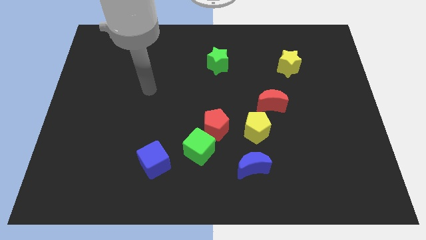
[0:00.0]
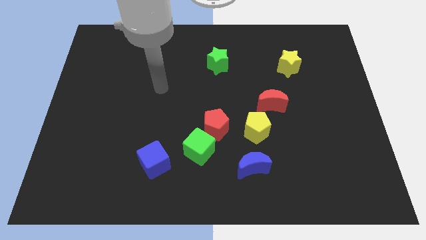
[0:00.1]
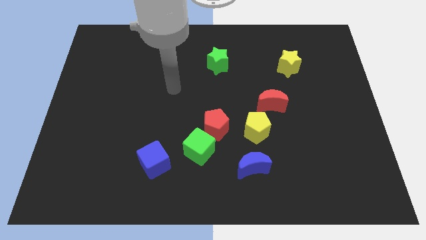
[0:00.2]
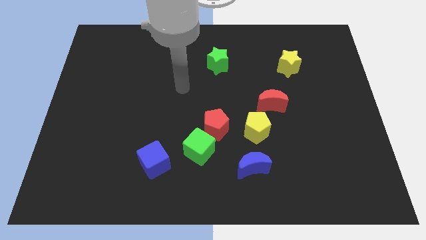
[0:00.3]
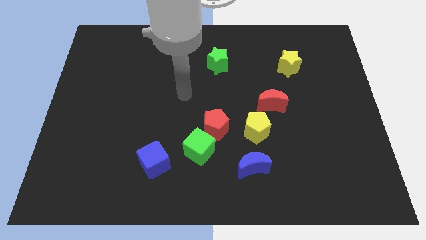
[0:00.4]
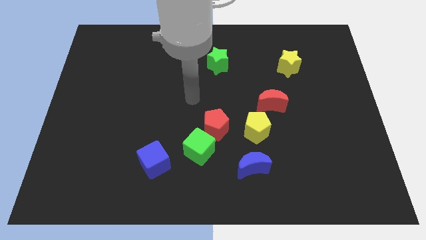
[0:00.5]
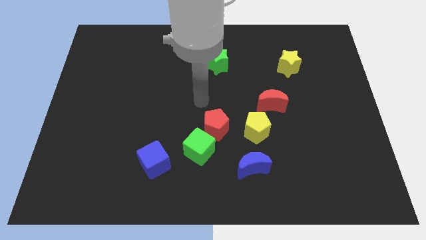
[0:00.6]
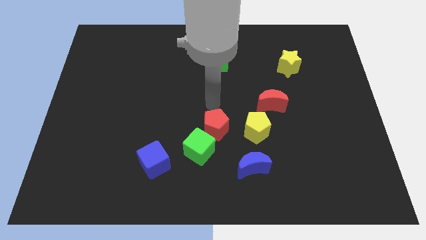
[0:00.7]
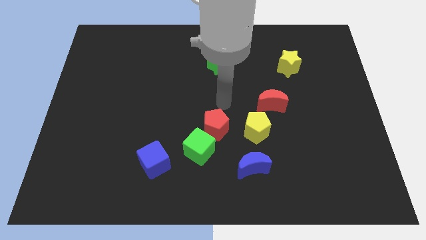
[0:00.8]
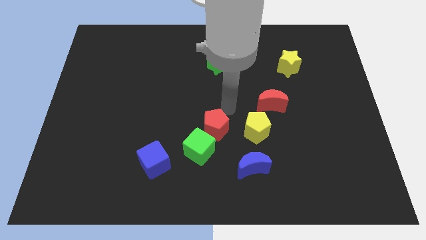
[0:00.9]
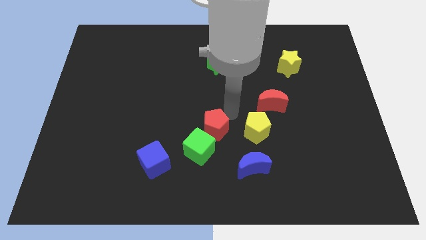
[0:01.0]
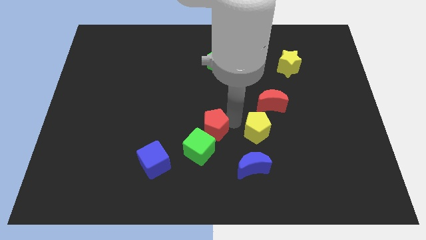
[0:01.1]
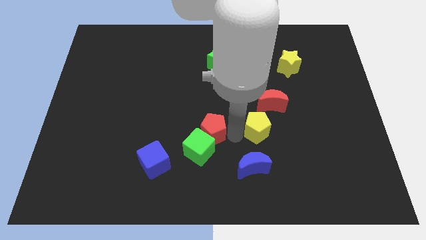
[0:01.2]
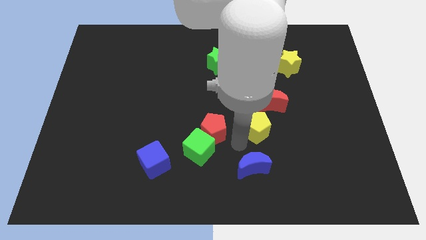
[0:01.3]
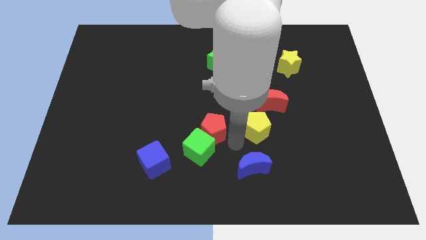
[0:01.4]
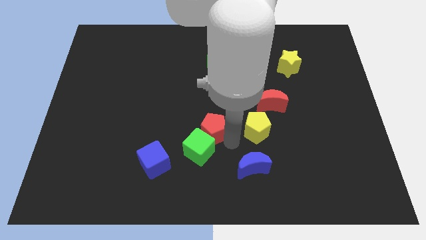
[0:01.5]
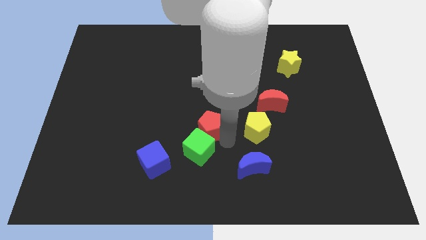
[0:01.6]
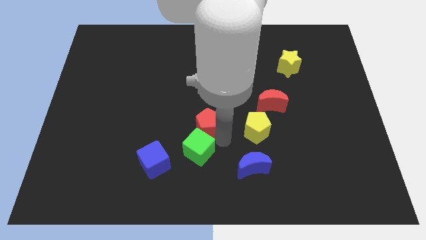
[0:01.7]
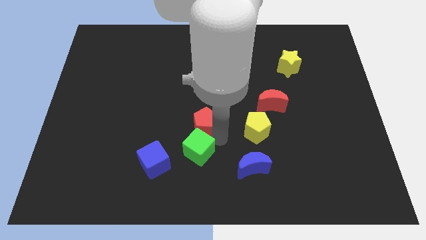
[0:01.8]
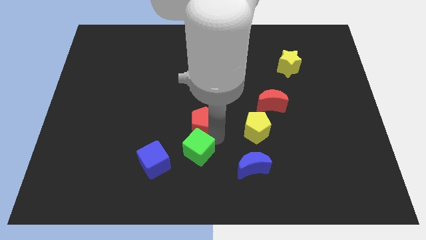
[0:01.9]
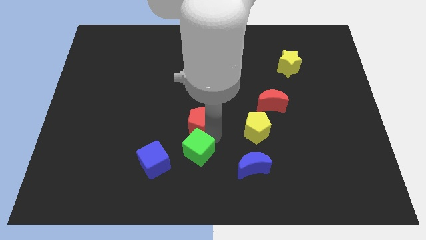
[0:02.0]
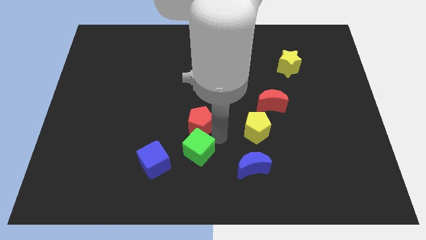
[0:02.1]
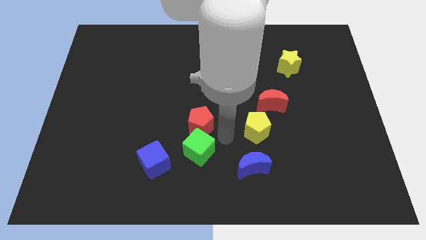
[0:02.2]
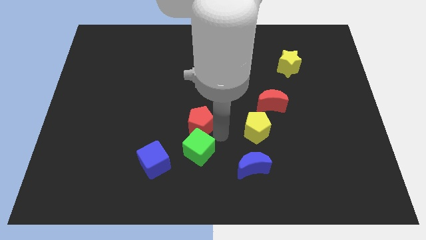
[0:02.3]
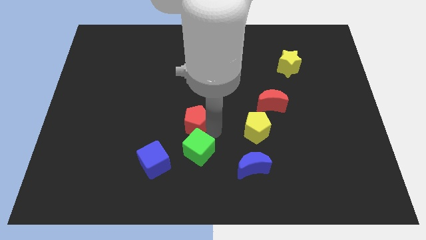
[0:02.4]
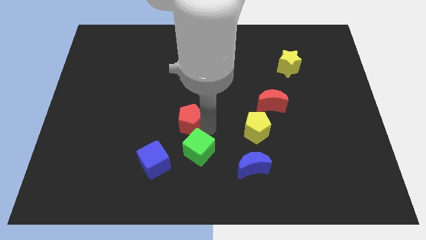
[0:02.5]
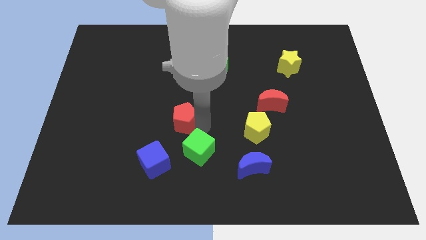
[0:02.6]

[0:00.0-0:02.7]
separate the red pentagon from the green cube and yellow pentagon

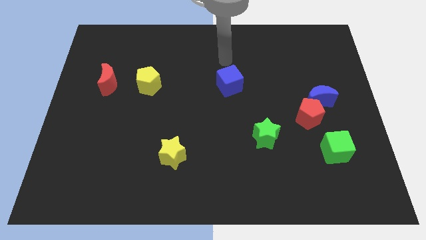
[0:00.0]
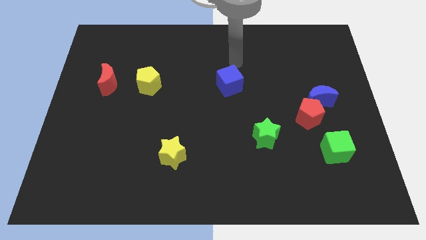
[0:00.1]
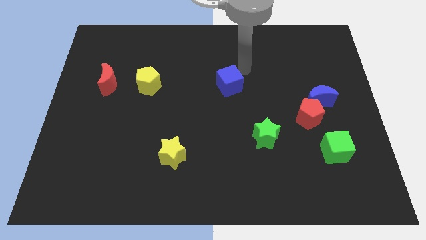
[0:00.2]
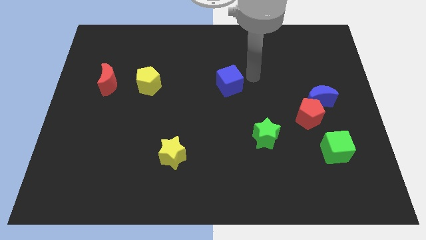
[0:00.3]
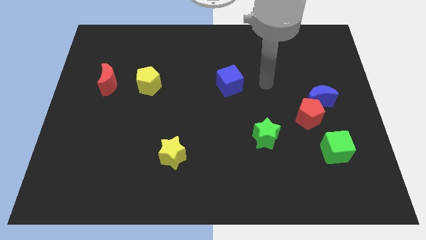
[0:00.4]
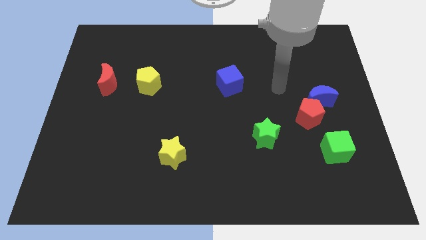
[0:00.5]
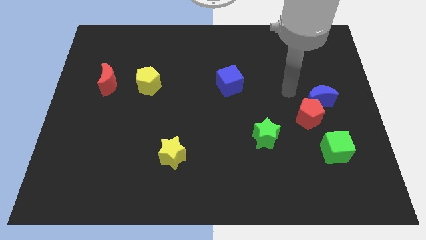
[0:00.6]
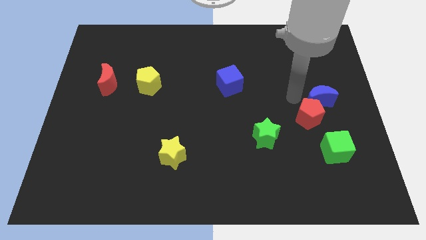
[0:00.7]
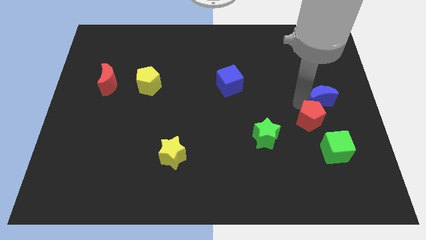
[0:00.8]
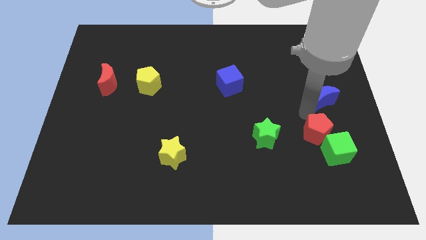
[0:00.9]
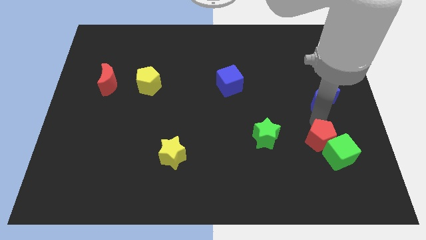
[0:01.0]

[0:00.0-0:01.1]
move the blue moon away from the red pentagon

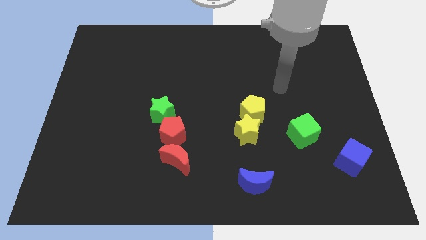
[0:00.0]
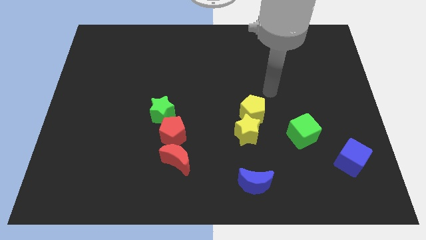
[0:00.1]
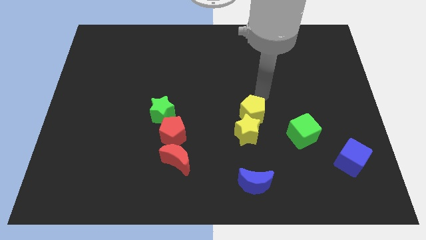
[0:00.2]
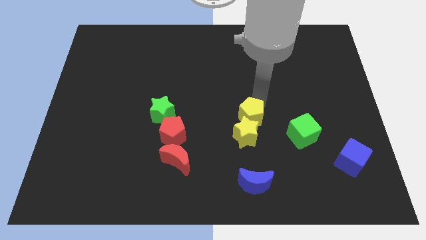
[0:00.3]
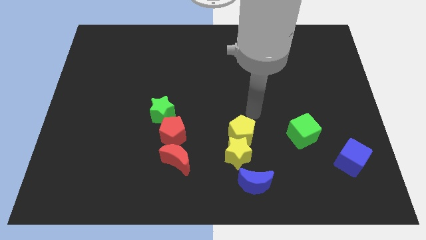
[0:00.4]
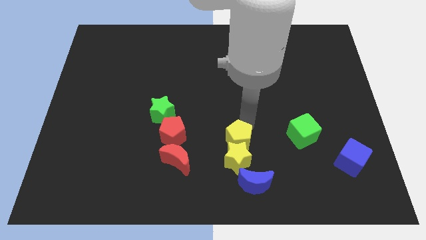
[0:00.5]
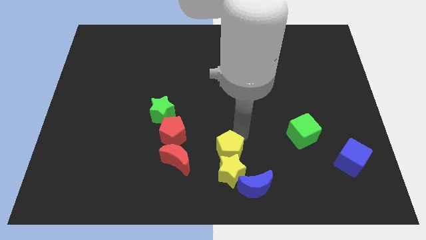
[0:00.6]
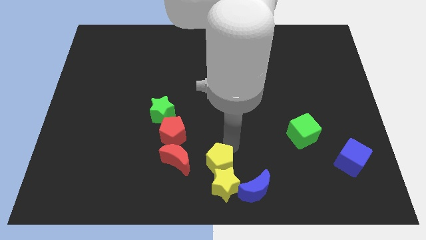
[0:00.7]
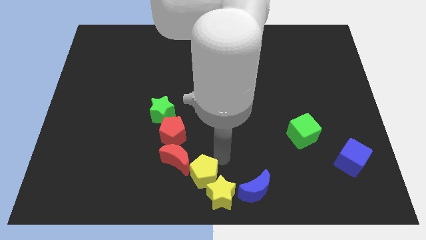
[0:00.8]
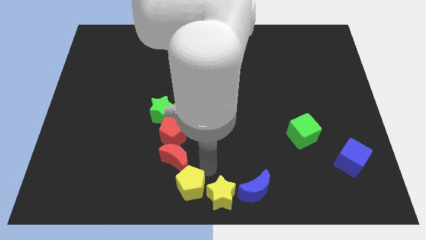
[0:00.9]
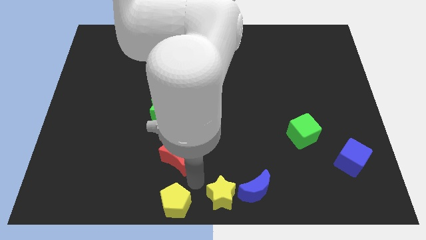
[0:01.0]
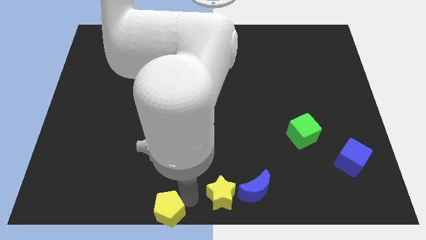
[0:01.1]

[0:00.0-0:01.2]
separate the yellow star from the yellow pentagon

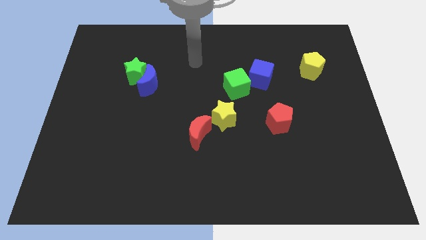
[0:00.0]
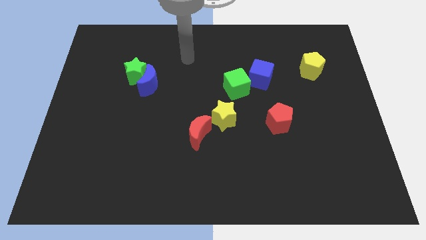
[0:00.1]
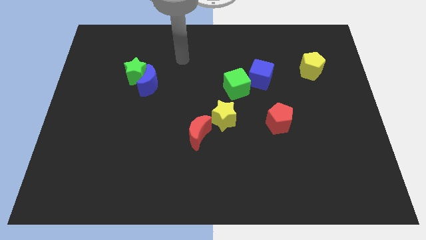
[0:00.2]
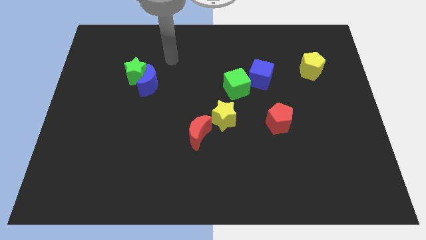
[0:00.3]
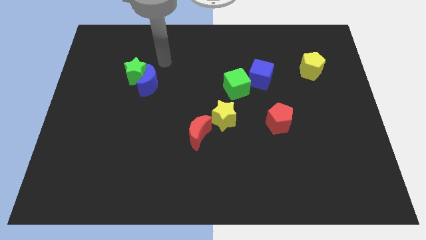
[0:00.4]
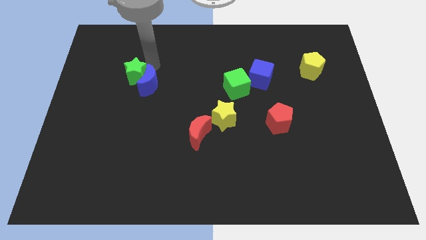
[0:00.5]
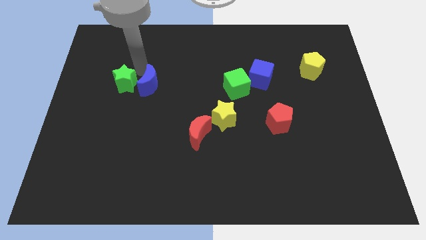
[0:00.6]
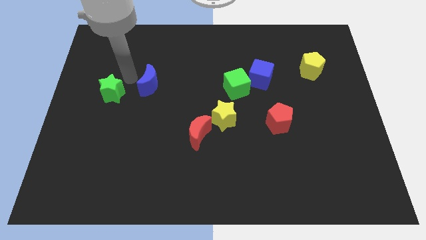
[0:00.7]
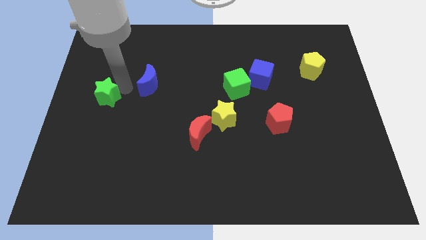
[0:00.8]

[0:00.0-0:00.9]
separate the blue moon from the green star

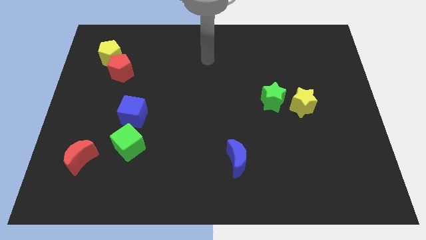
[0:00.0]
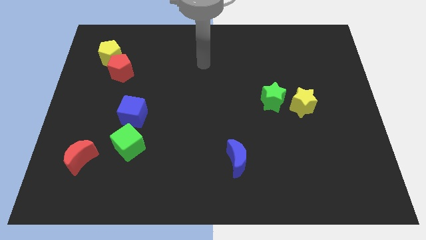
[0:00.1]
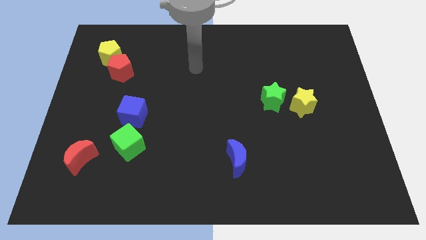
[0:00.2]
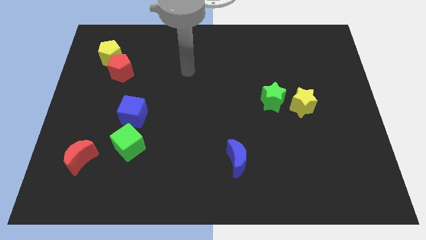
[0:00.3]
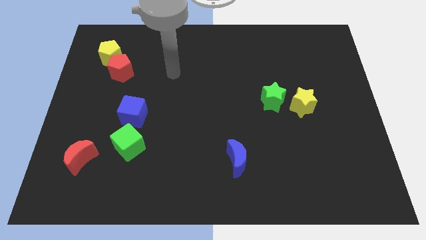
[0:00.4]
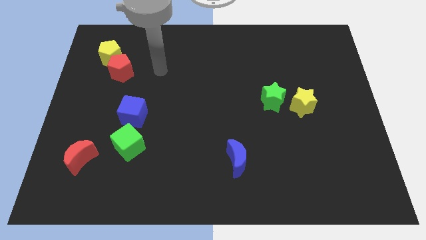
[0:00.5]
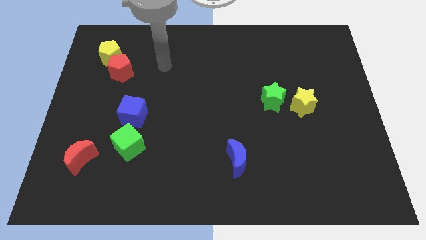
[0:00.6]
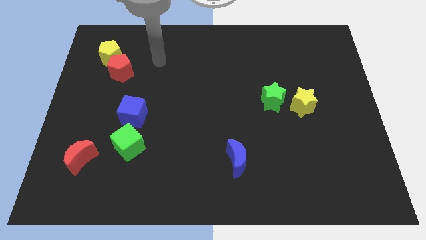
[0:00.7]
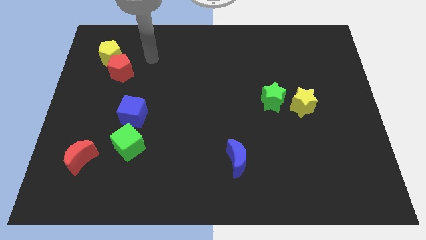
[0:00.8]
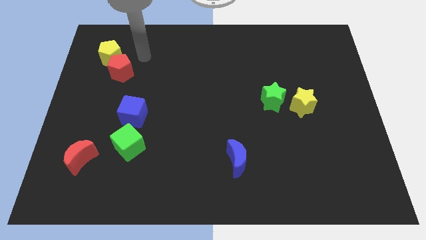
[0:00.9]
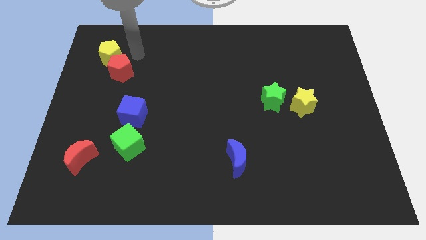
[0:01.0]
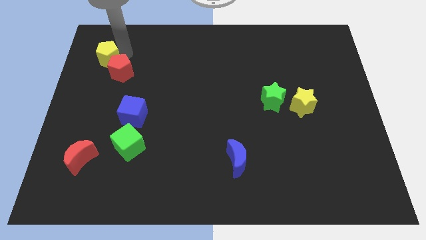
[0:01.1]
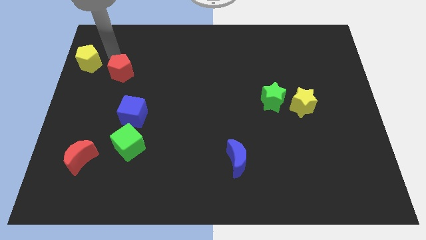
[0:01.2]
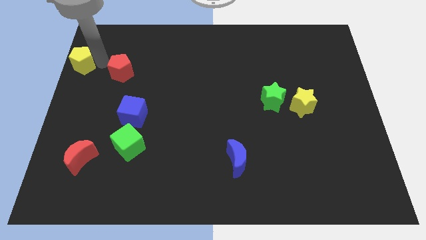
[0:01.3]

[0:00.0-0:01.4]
separate the red pentagon from the yellow pentagon

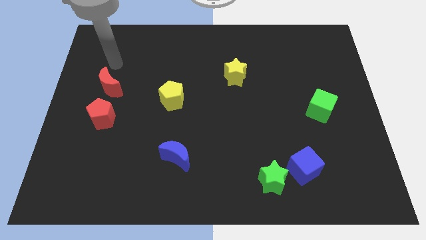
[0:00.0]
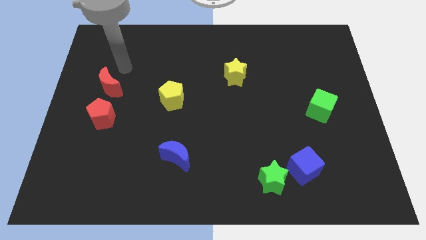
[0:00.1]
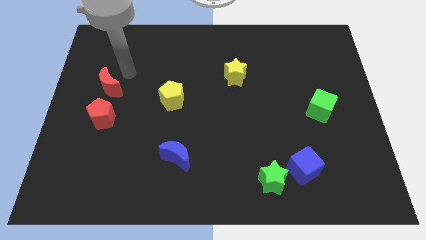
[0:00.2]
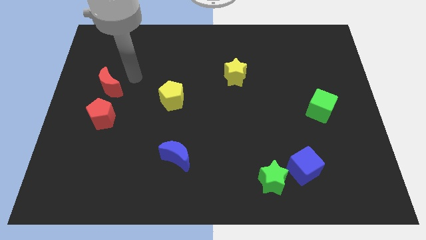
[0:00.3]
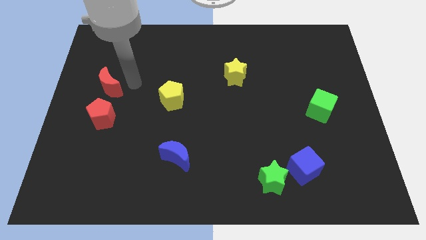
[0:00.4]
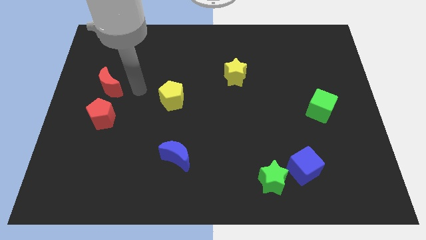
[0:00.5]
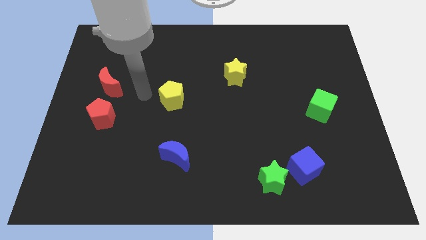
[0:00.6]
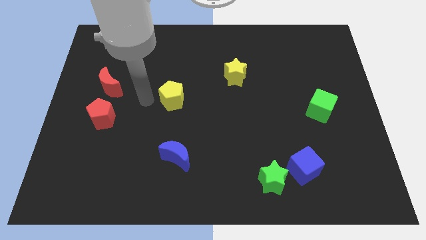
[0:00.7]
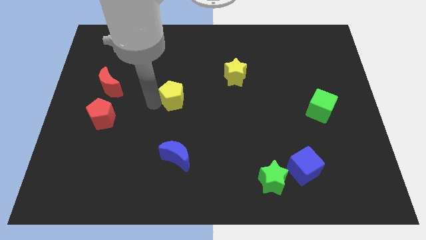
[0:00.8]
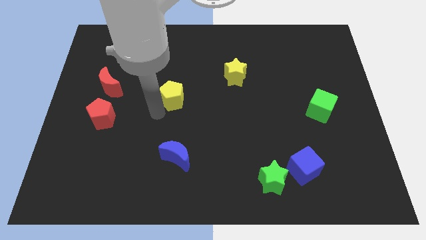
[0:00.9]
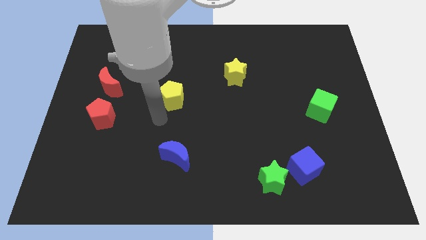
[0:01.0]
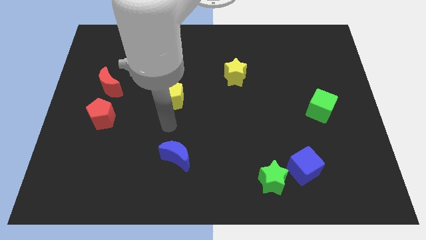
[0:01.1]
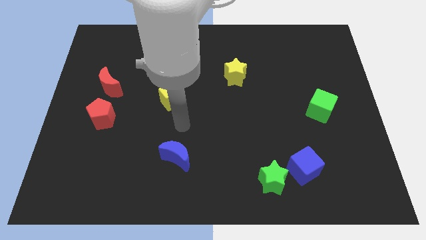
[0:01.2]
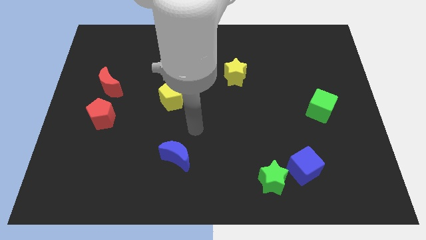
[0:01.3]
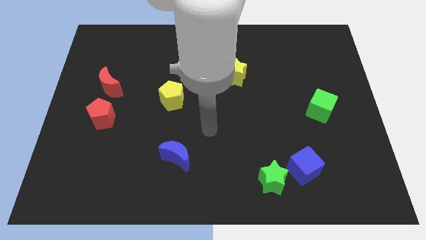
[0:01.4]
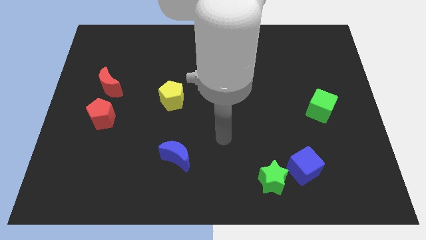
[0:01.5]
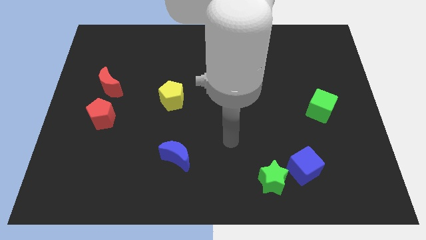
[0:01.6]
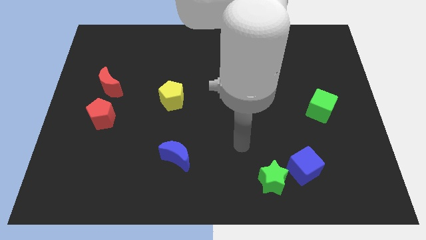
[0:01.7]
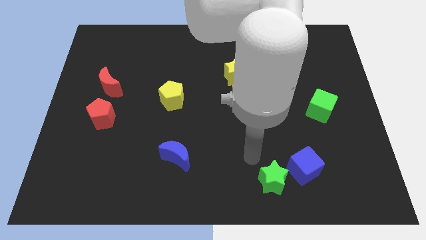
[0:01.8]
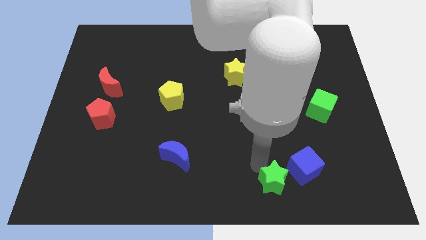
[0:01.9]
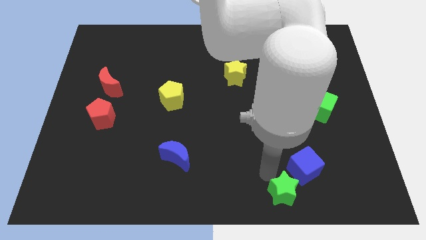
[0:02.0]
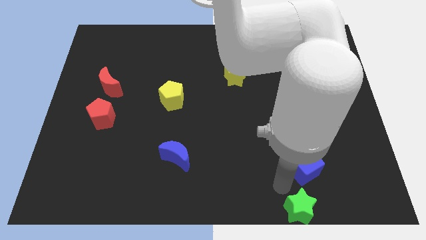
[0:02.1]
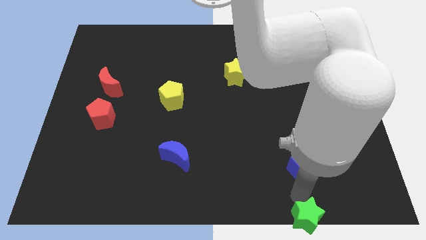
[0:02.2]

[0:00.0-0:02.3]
move the blue cube away from the green star
